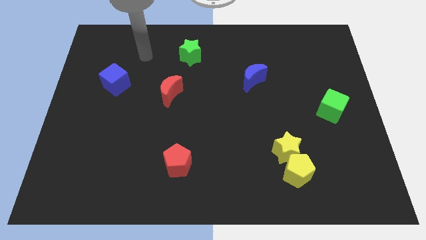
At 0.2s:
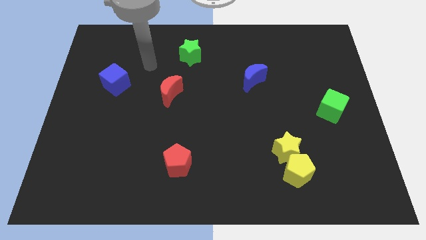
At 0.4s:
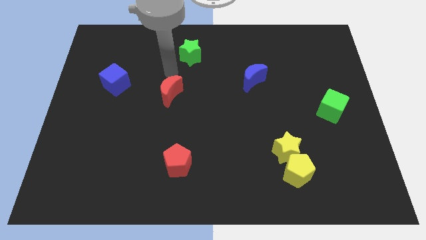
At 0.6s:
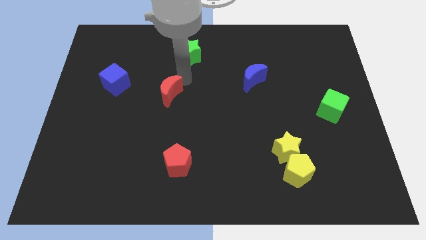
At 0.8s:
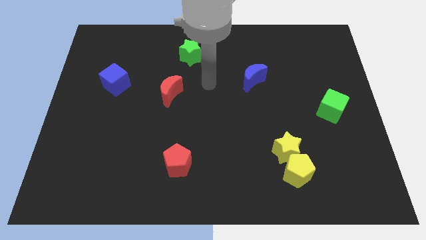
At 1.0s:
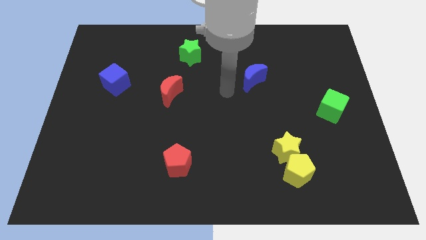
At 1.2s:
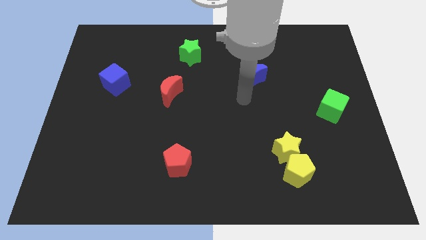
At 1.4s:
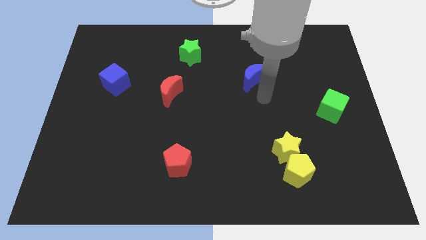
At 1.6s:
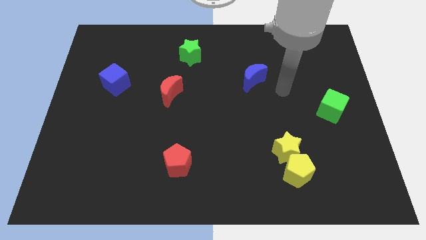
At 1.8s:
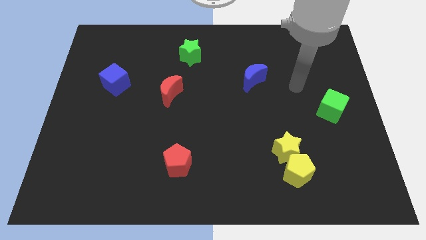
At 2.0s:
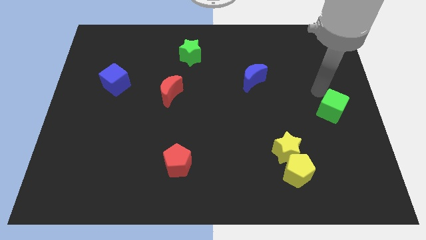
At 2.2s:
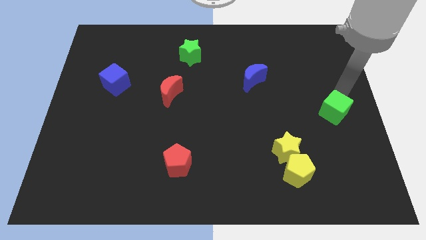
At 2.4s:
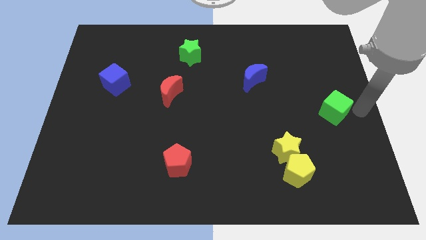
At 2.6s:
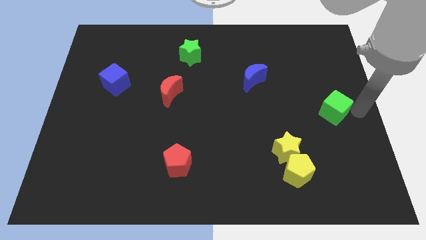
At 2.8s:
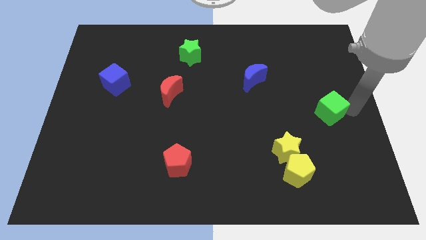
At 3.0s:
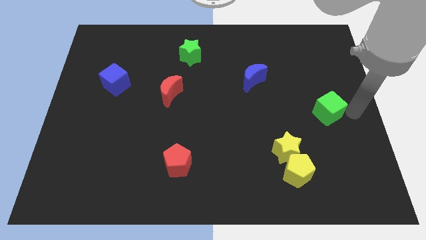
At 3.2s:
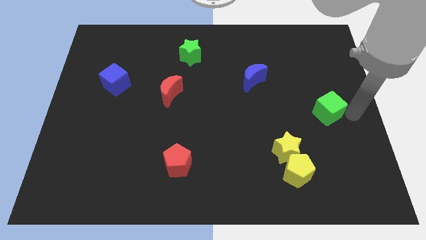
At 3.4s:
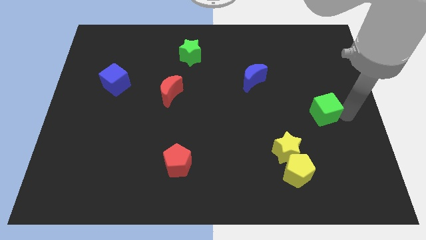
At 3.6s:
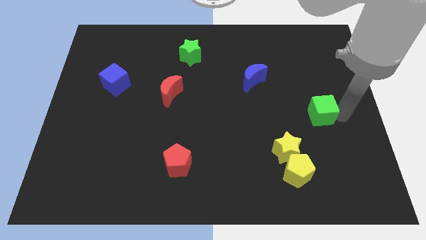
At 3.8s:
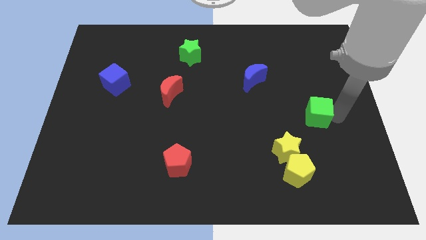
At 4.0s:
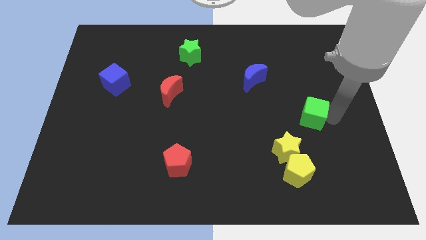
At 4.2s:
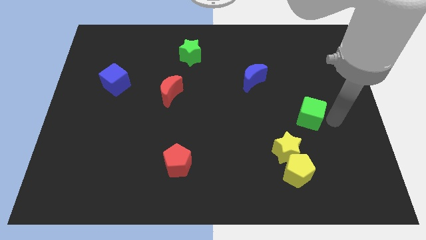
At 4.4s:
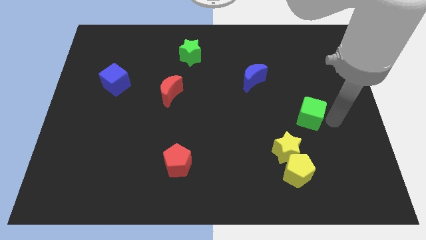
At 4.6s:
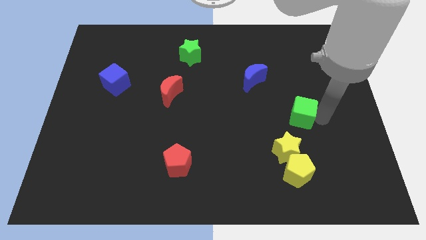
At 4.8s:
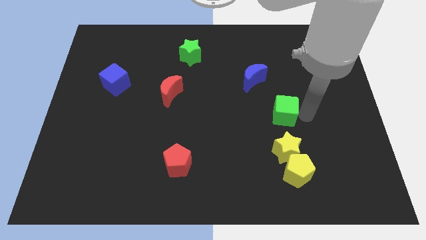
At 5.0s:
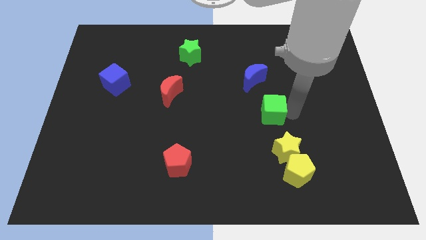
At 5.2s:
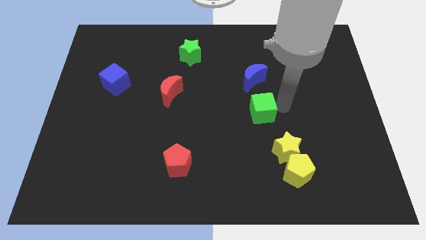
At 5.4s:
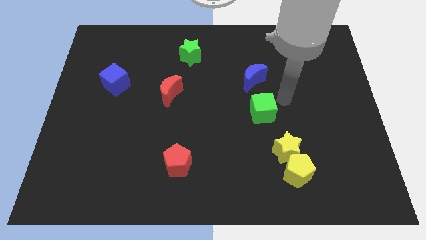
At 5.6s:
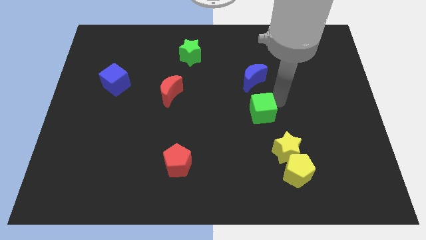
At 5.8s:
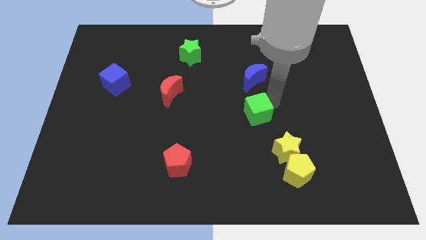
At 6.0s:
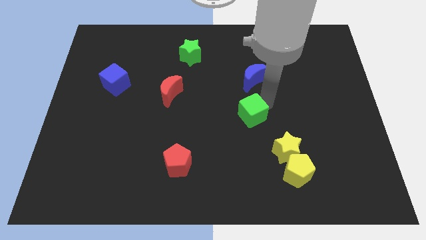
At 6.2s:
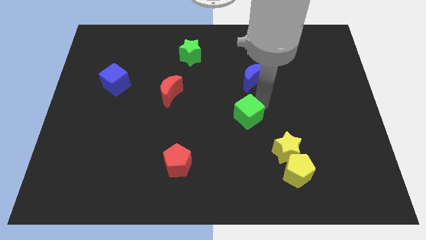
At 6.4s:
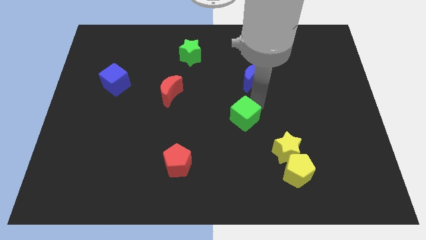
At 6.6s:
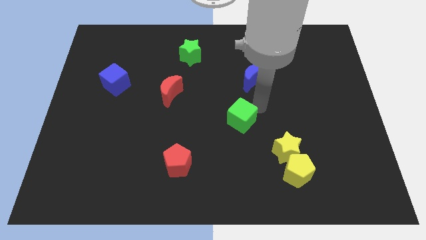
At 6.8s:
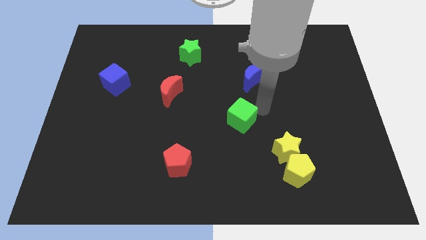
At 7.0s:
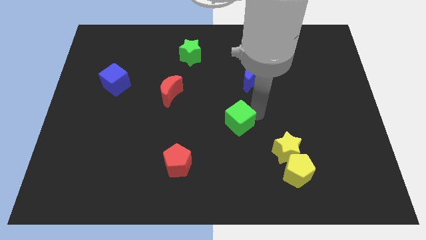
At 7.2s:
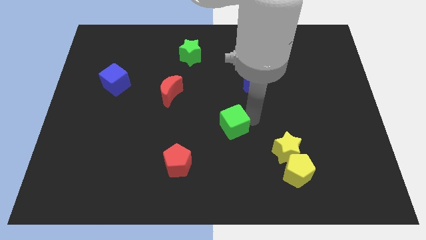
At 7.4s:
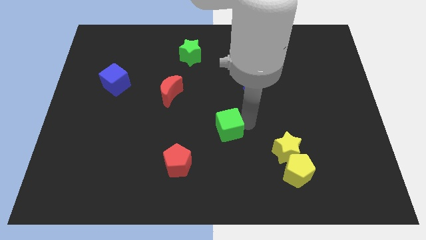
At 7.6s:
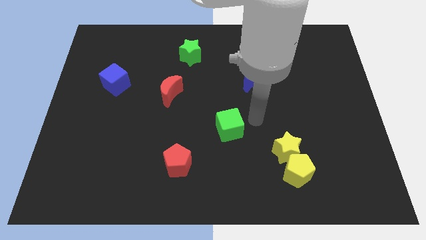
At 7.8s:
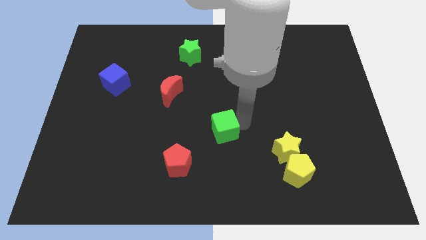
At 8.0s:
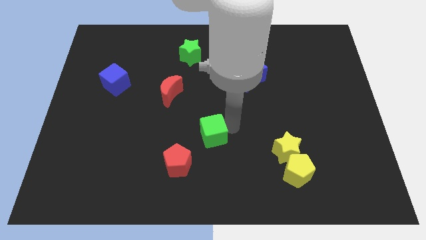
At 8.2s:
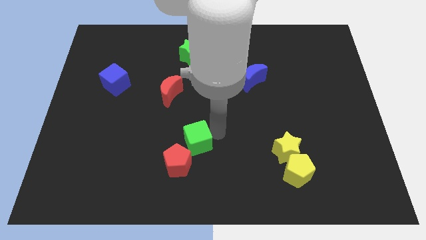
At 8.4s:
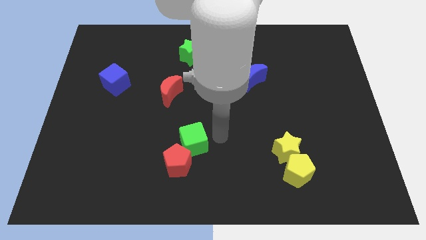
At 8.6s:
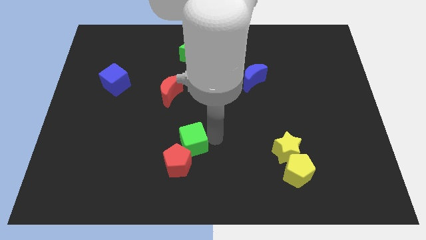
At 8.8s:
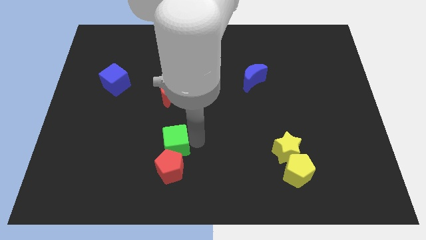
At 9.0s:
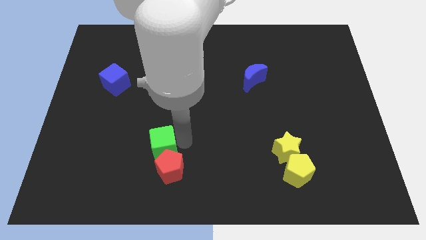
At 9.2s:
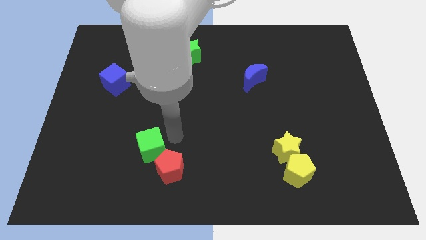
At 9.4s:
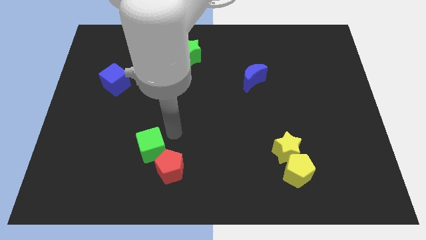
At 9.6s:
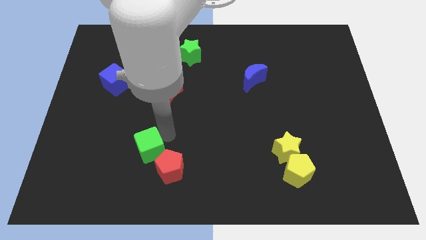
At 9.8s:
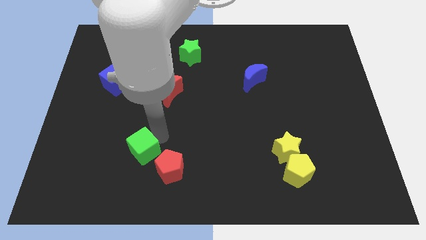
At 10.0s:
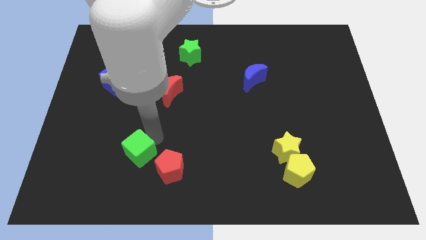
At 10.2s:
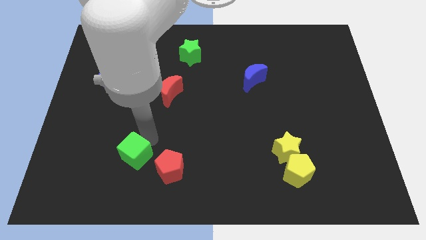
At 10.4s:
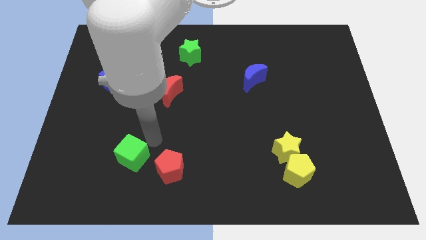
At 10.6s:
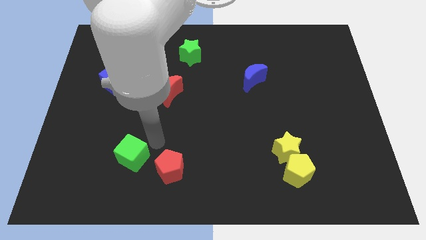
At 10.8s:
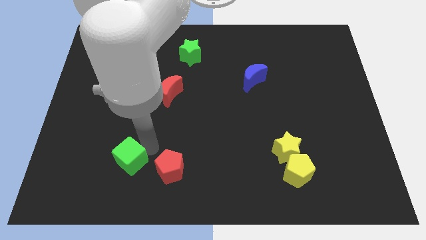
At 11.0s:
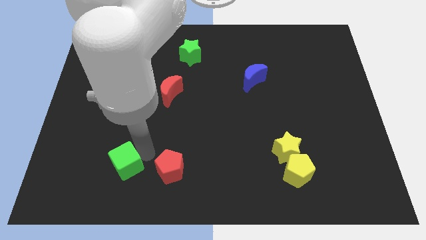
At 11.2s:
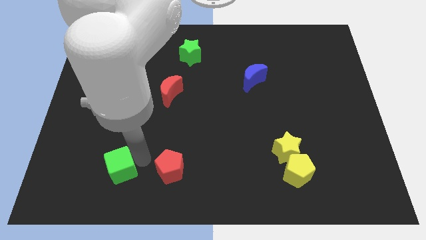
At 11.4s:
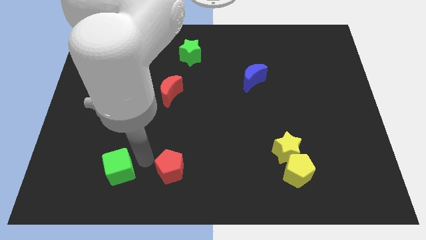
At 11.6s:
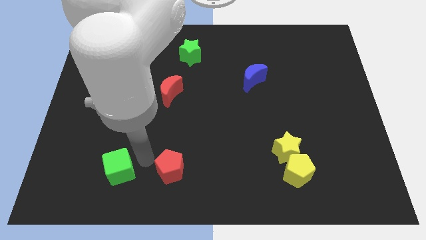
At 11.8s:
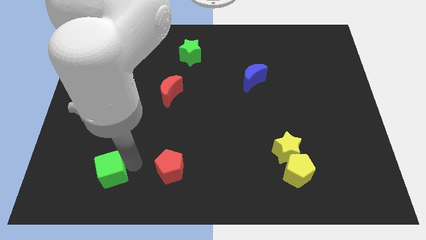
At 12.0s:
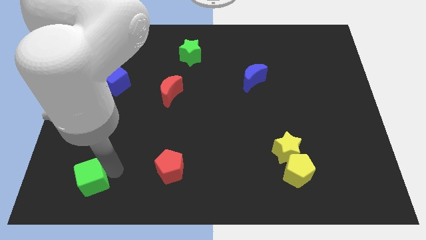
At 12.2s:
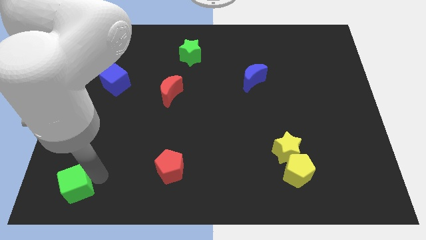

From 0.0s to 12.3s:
move the green cube to the lower left corner
